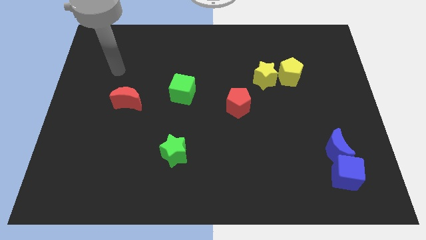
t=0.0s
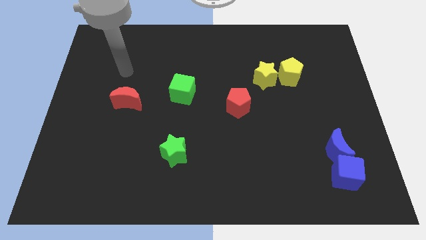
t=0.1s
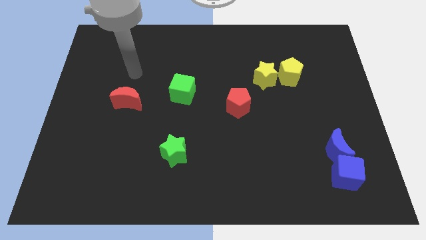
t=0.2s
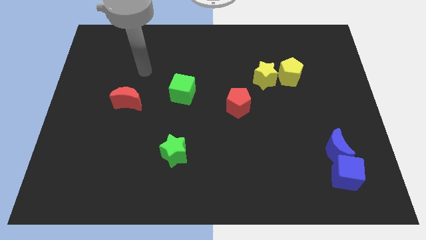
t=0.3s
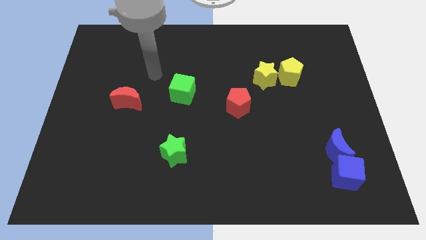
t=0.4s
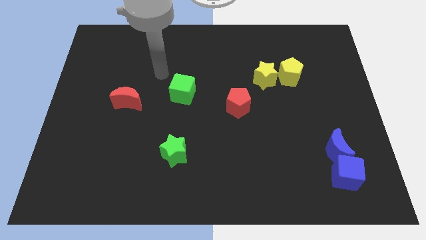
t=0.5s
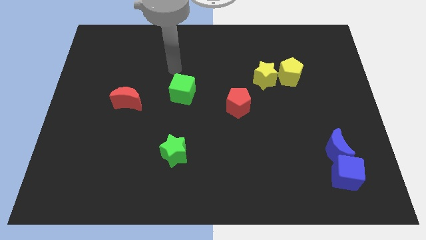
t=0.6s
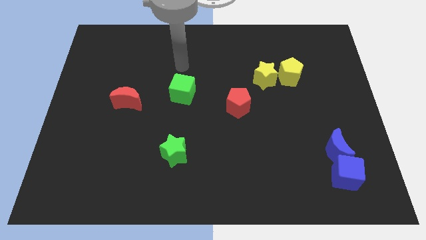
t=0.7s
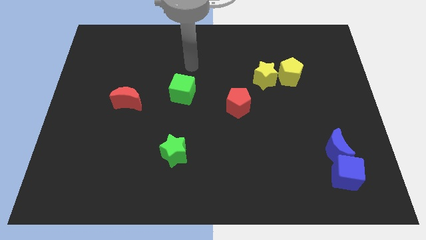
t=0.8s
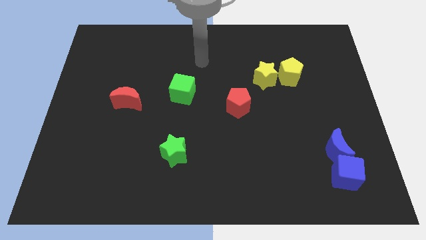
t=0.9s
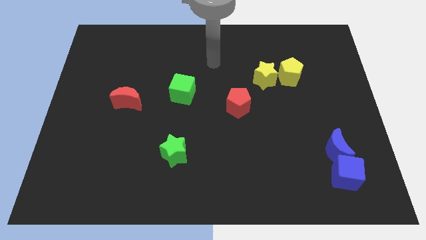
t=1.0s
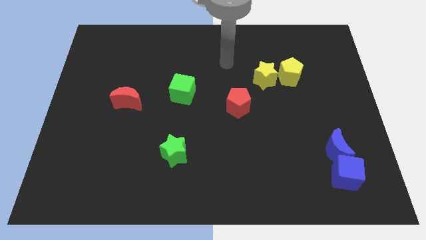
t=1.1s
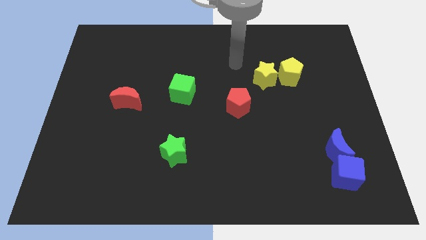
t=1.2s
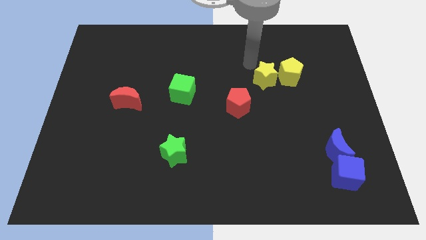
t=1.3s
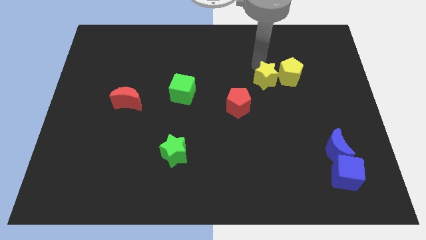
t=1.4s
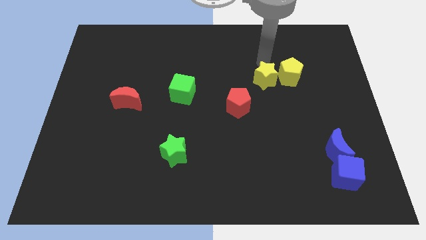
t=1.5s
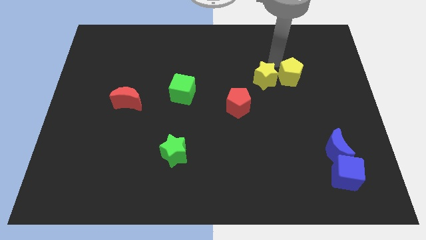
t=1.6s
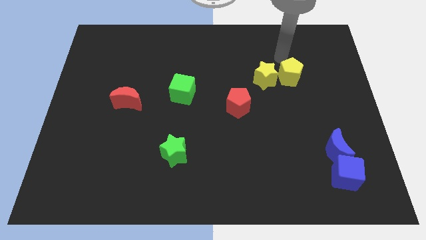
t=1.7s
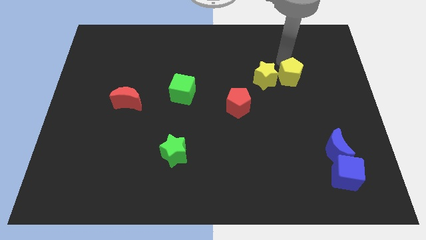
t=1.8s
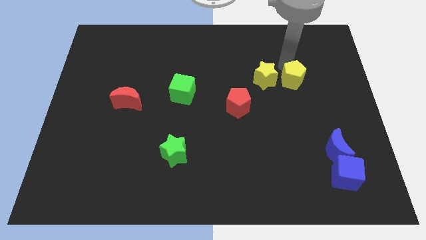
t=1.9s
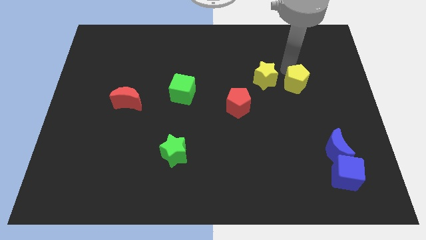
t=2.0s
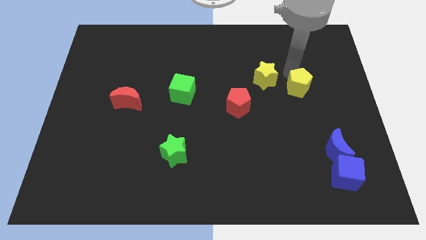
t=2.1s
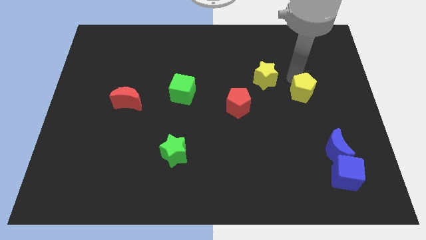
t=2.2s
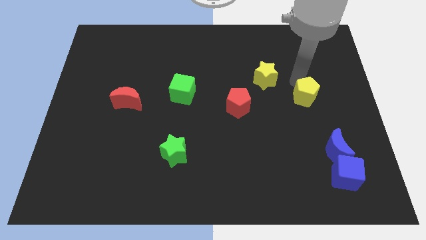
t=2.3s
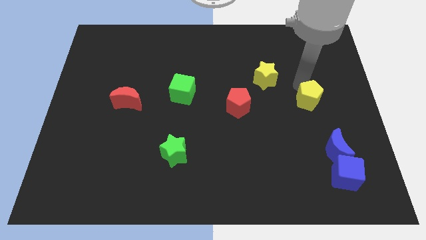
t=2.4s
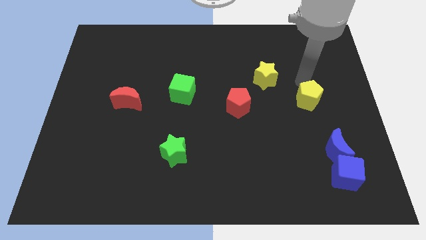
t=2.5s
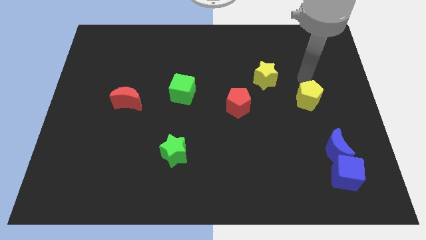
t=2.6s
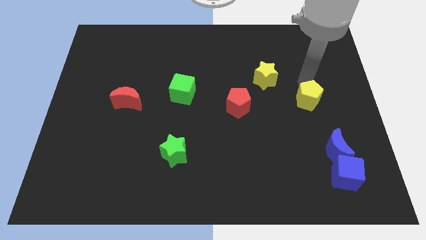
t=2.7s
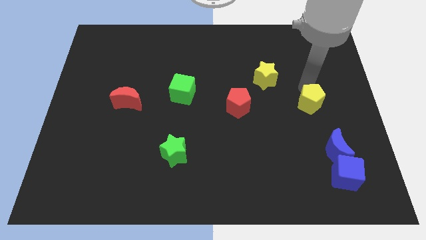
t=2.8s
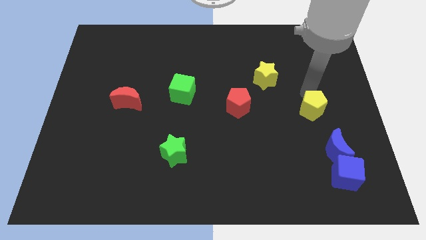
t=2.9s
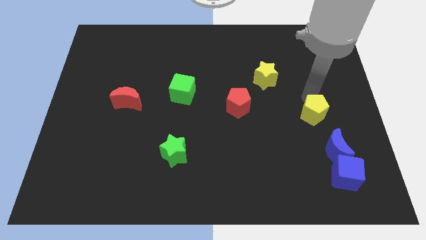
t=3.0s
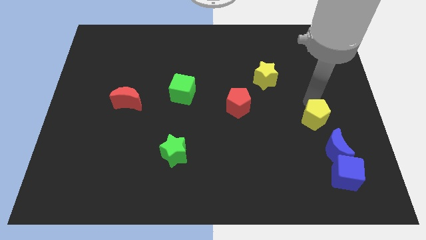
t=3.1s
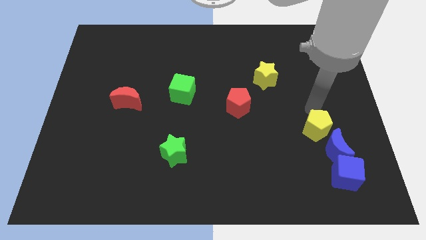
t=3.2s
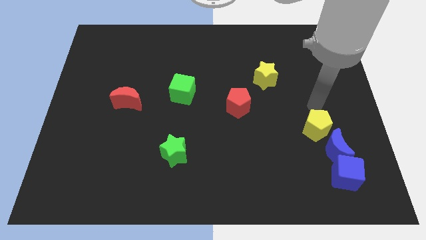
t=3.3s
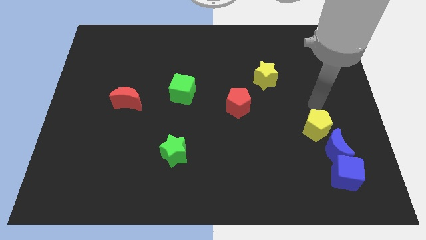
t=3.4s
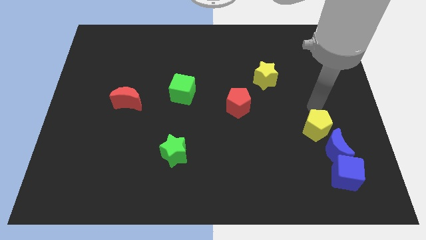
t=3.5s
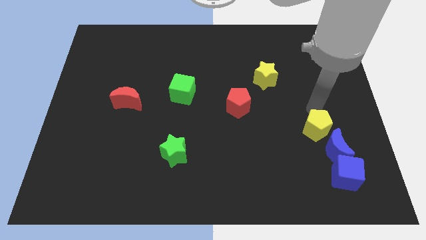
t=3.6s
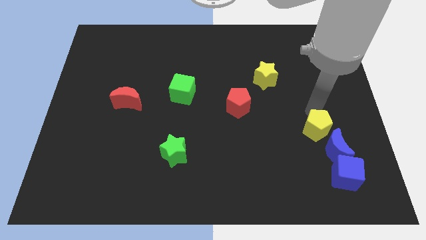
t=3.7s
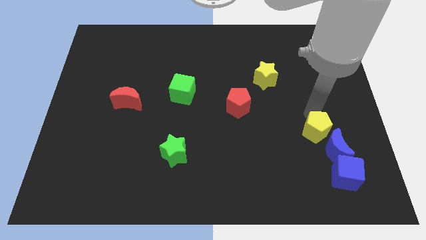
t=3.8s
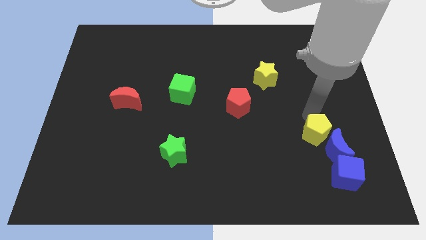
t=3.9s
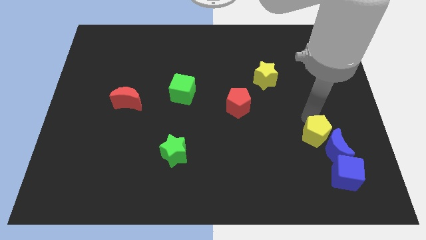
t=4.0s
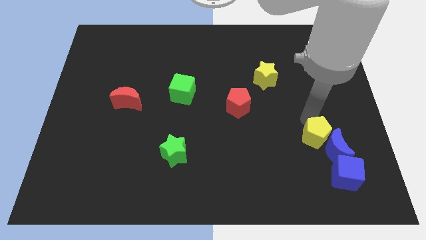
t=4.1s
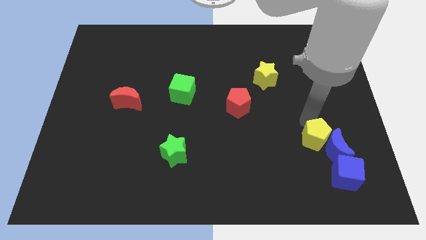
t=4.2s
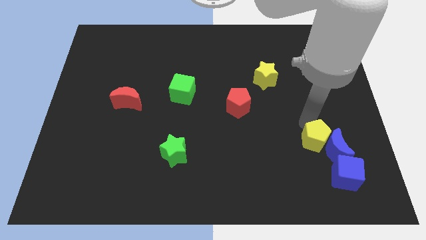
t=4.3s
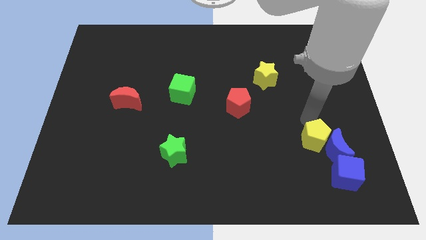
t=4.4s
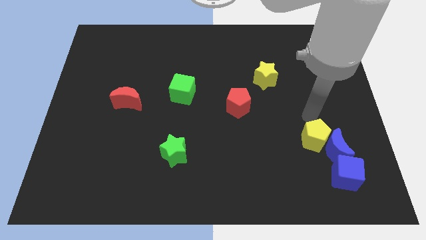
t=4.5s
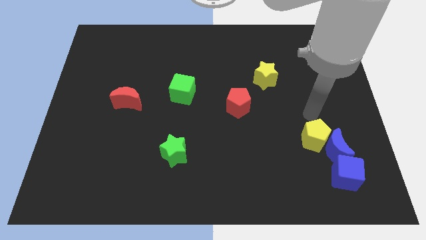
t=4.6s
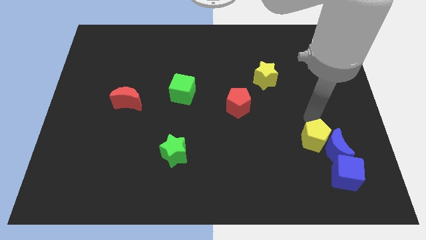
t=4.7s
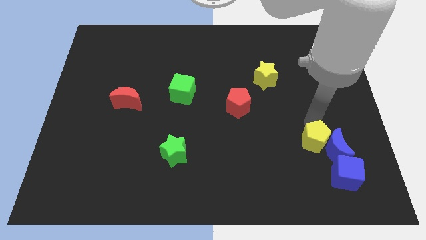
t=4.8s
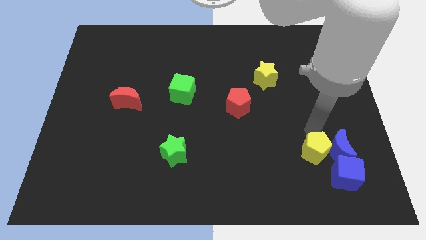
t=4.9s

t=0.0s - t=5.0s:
slide the yellow pentagon to the bottom left of the blue moon

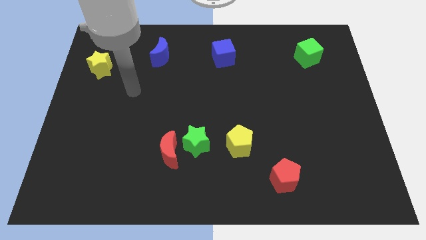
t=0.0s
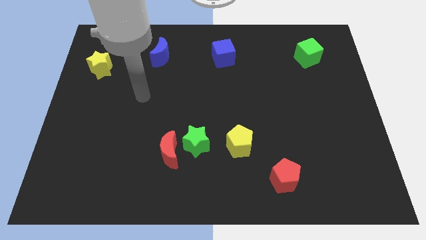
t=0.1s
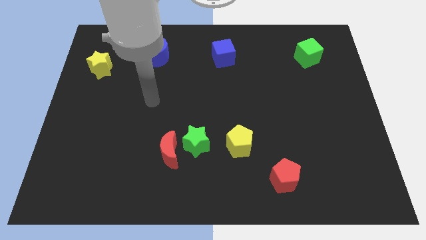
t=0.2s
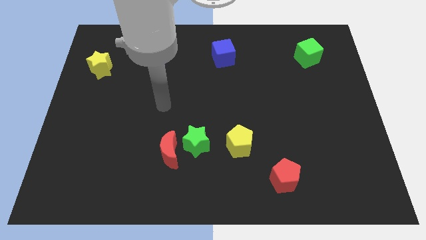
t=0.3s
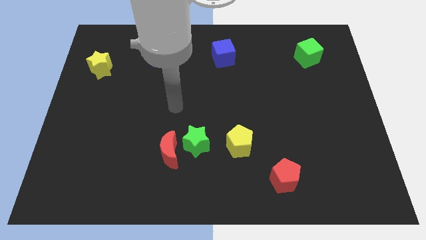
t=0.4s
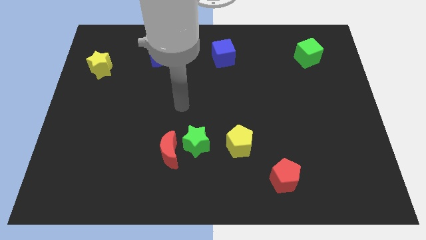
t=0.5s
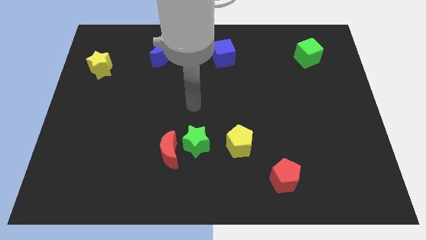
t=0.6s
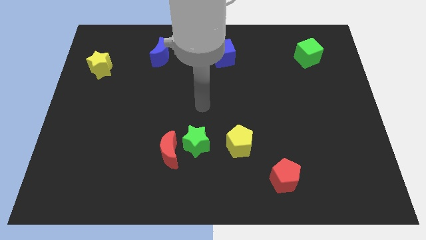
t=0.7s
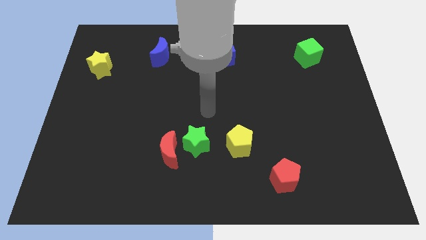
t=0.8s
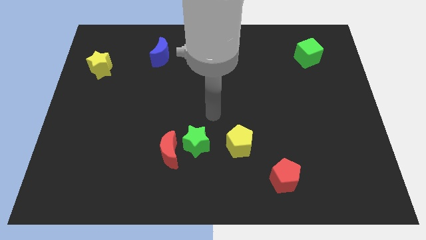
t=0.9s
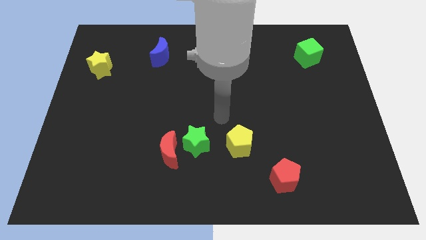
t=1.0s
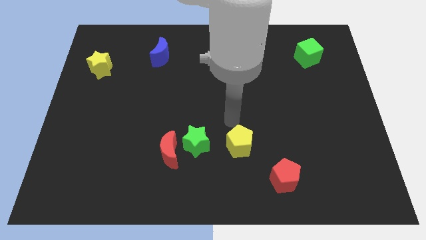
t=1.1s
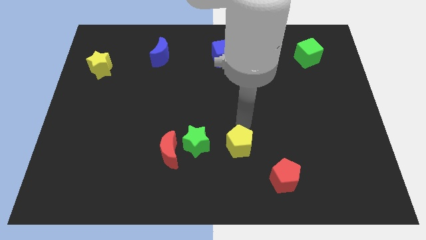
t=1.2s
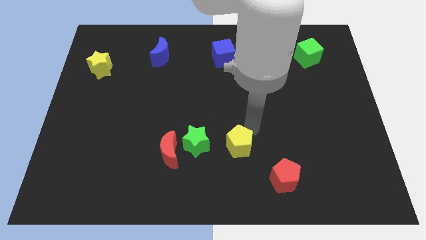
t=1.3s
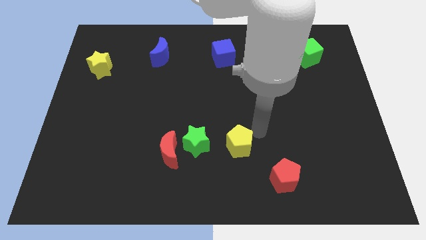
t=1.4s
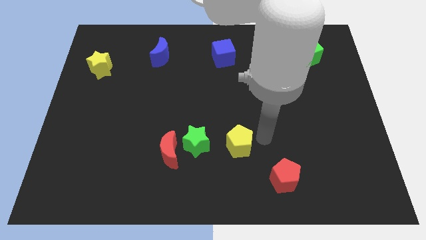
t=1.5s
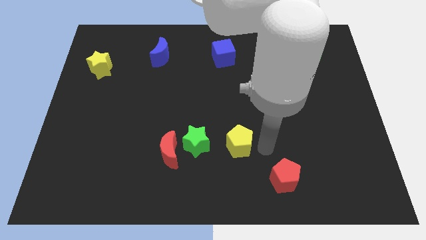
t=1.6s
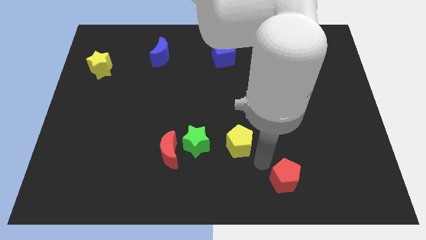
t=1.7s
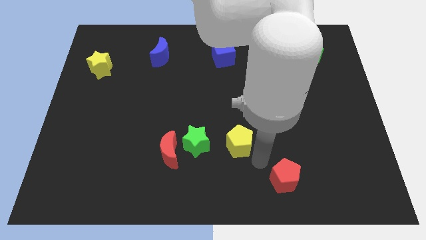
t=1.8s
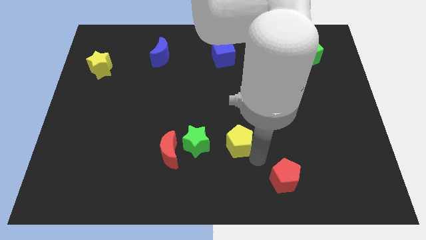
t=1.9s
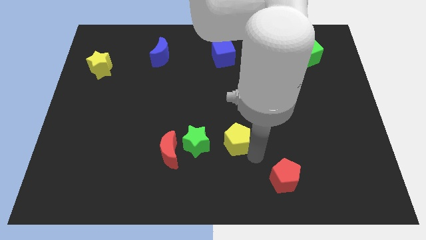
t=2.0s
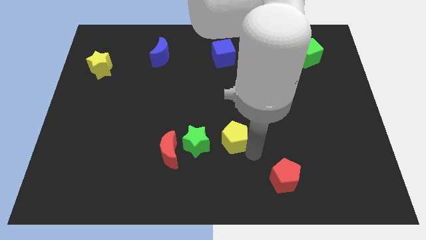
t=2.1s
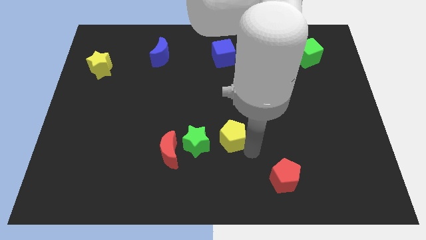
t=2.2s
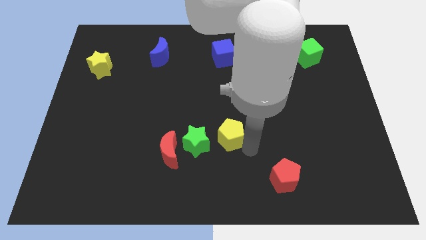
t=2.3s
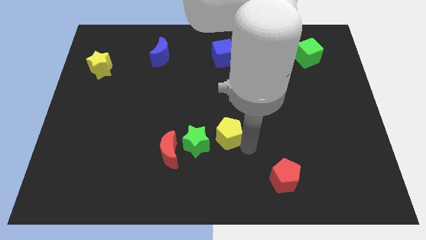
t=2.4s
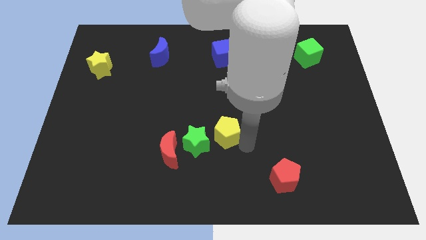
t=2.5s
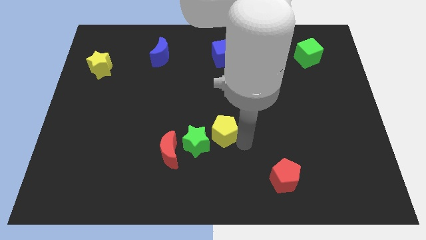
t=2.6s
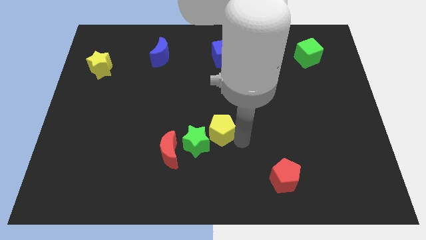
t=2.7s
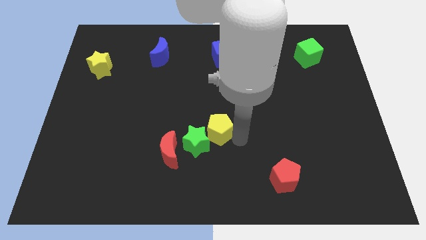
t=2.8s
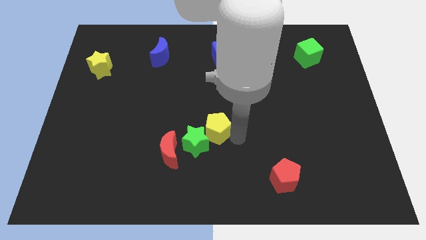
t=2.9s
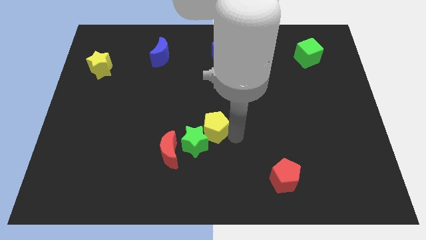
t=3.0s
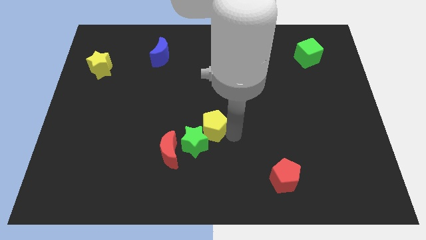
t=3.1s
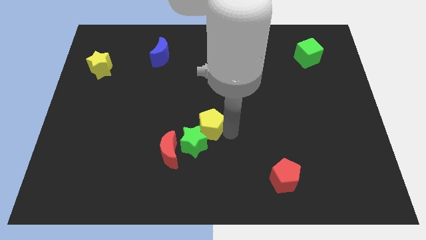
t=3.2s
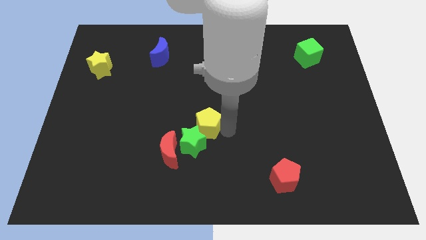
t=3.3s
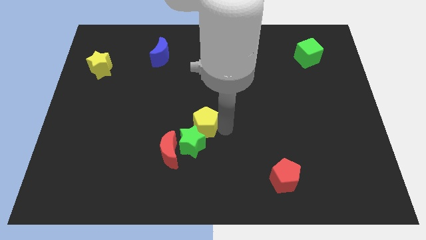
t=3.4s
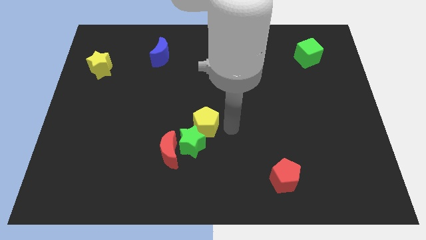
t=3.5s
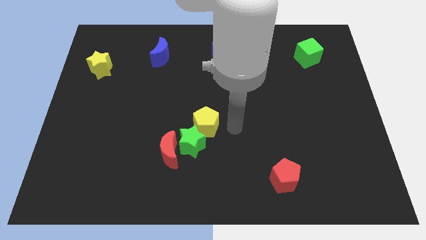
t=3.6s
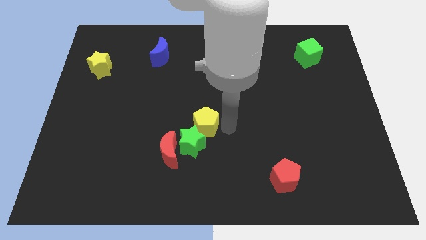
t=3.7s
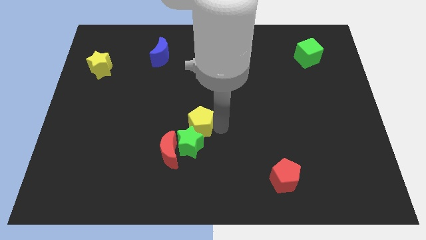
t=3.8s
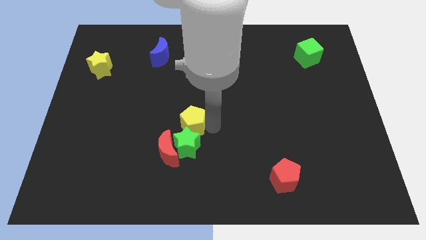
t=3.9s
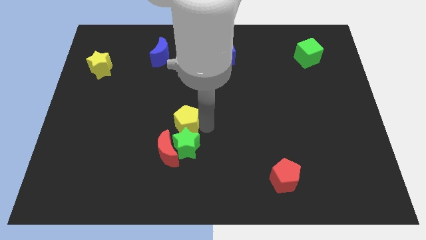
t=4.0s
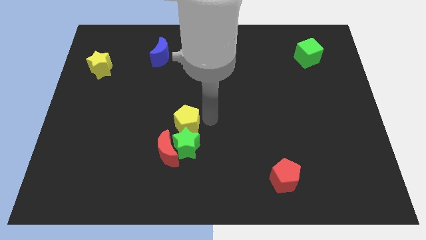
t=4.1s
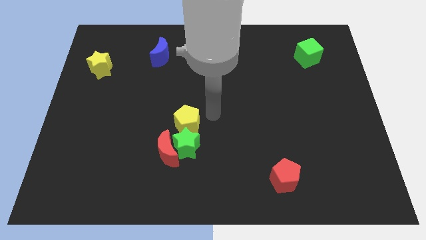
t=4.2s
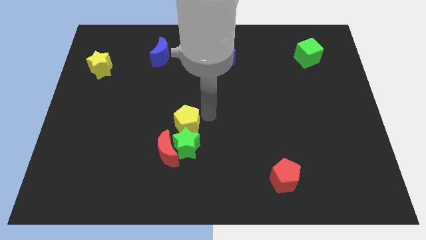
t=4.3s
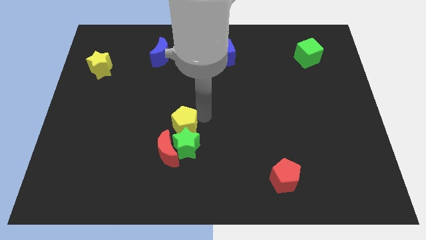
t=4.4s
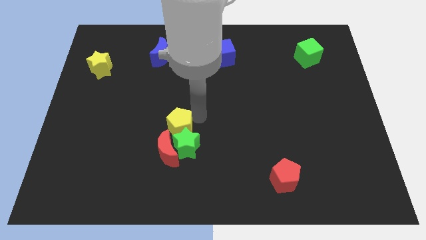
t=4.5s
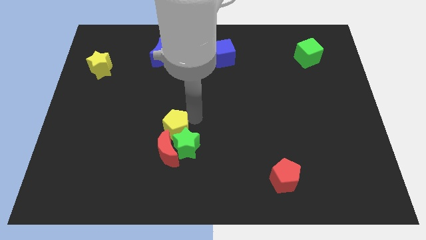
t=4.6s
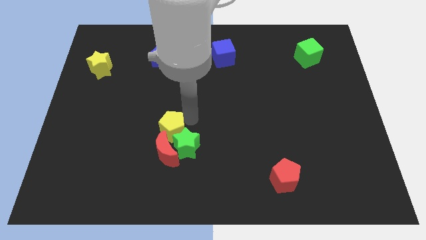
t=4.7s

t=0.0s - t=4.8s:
slide the yellow pentagon just left of the green star
